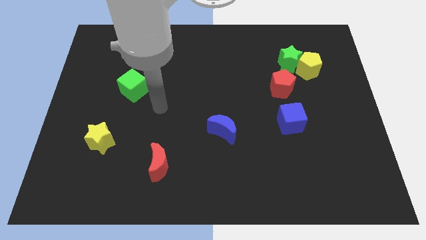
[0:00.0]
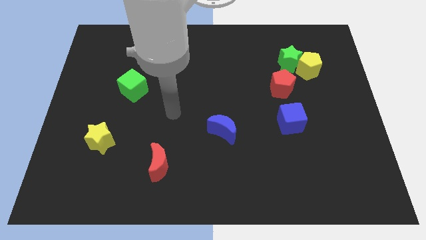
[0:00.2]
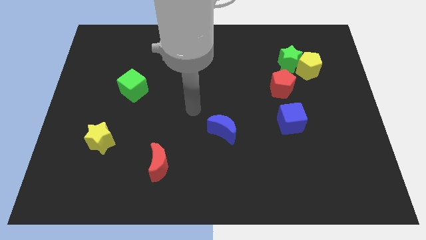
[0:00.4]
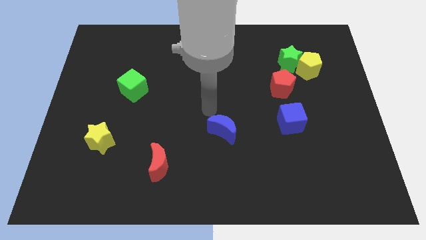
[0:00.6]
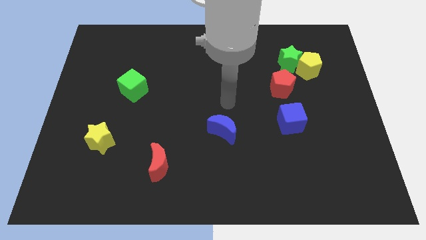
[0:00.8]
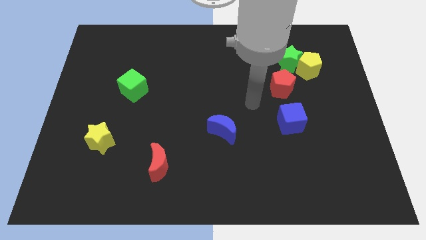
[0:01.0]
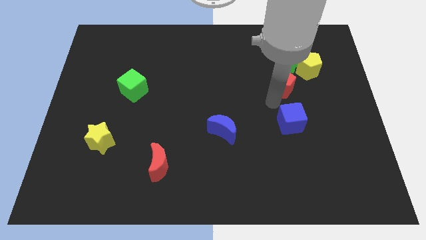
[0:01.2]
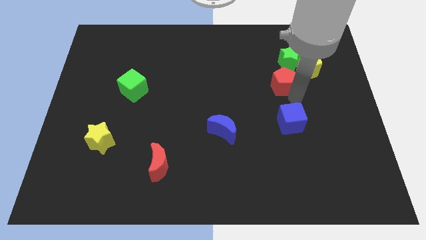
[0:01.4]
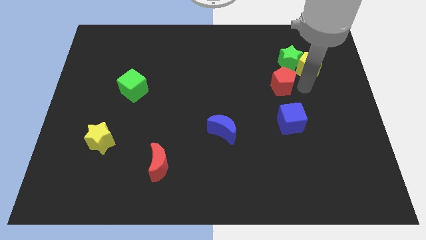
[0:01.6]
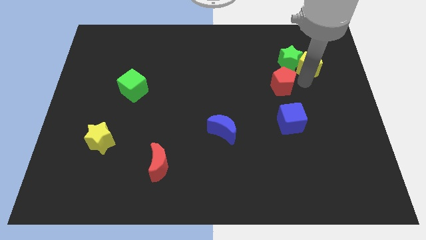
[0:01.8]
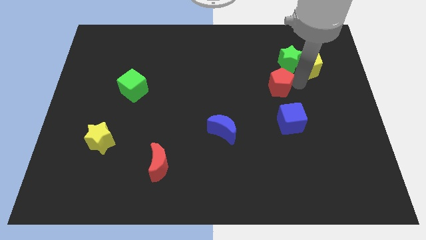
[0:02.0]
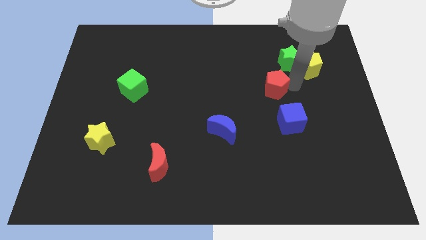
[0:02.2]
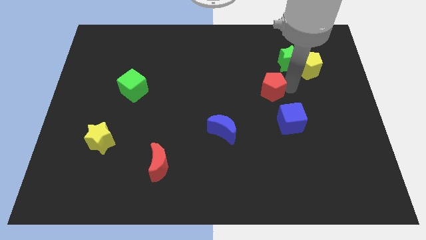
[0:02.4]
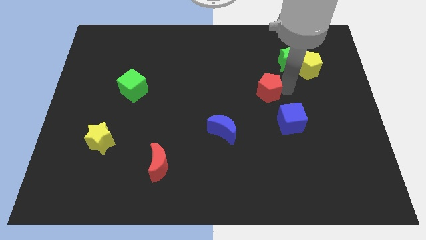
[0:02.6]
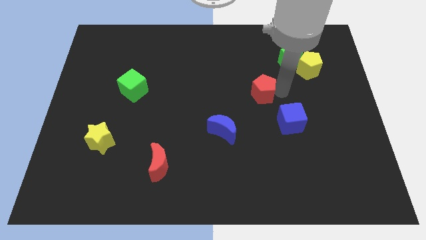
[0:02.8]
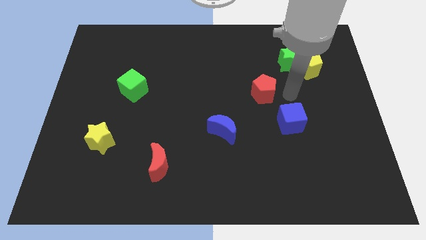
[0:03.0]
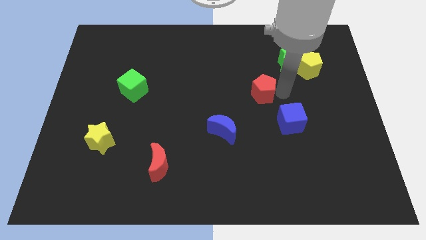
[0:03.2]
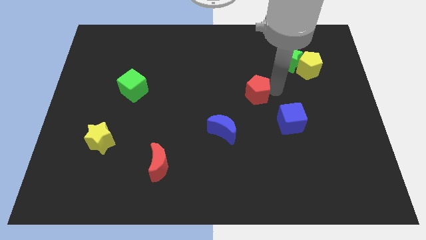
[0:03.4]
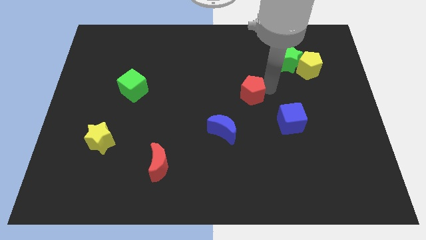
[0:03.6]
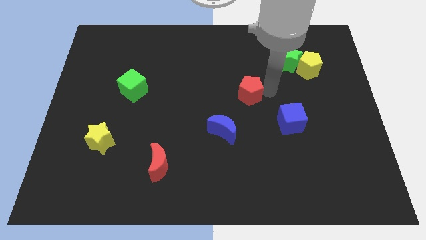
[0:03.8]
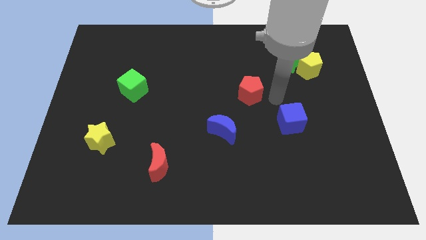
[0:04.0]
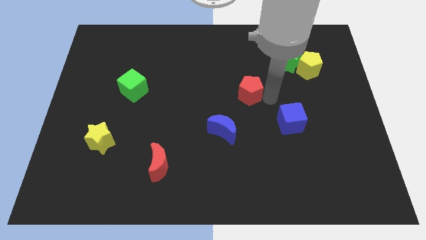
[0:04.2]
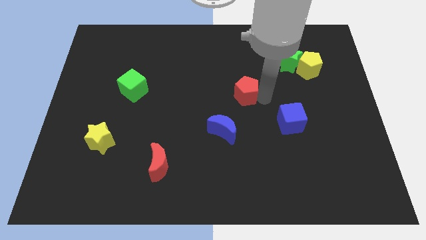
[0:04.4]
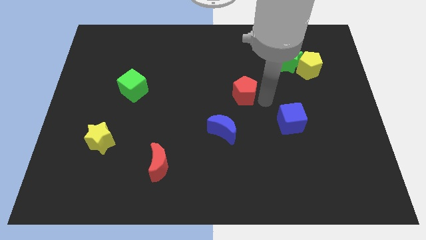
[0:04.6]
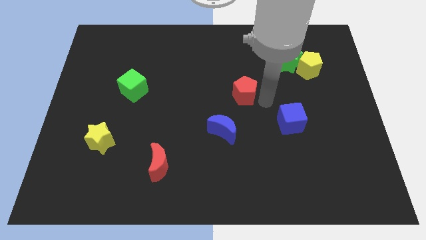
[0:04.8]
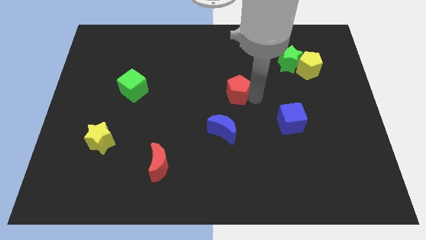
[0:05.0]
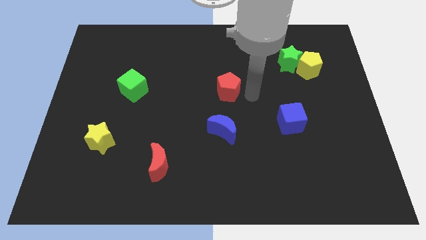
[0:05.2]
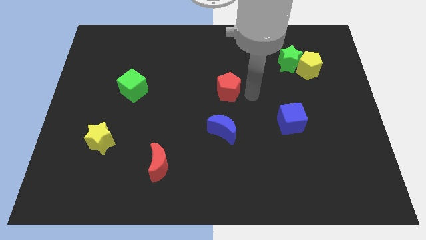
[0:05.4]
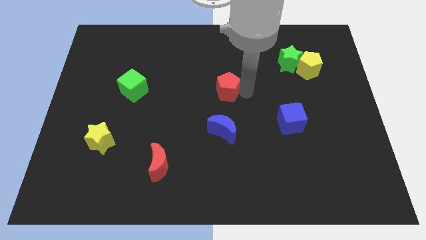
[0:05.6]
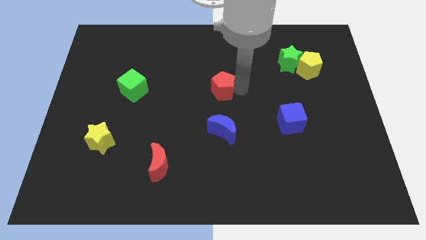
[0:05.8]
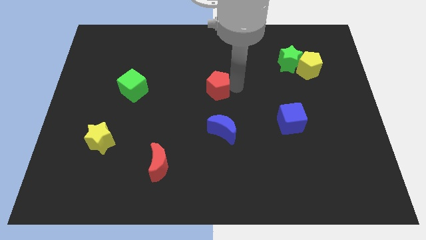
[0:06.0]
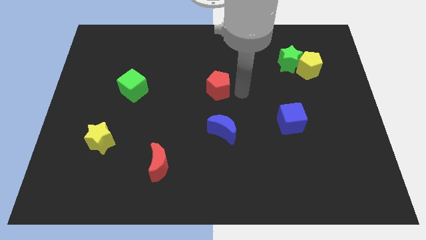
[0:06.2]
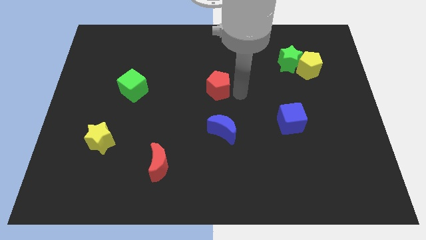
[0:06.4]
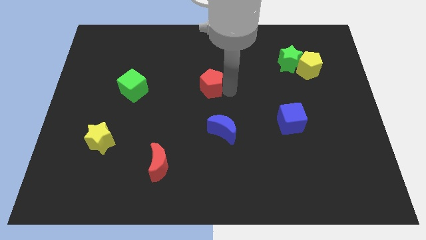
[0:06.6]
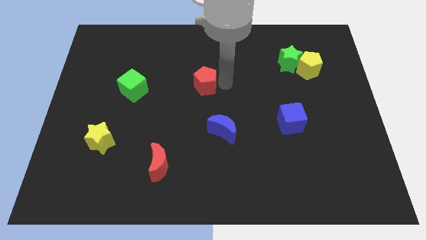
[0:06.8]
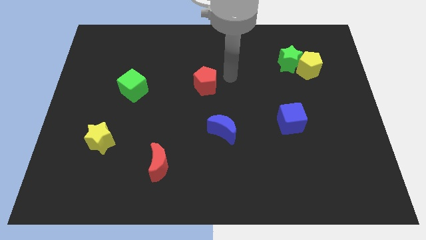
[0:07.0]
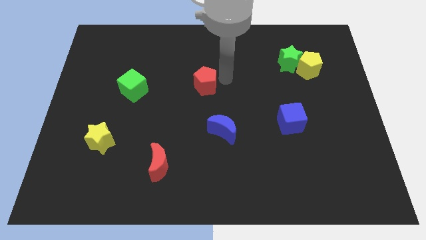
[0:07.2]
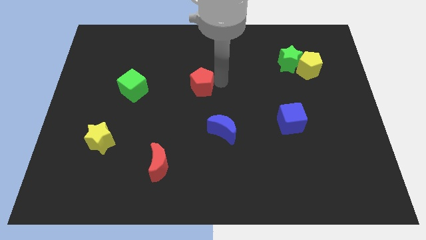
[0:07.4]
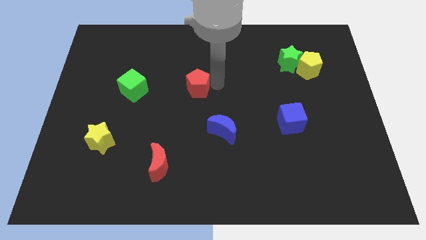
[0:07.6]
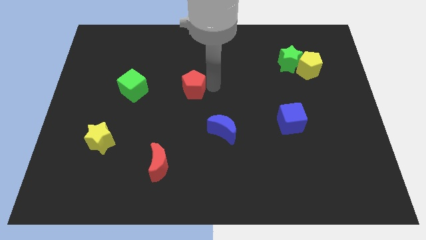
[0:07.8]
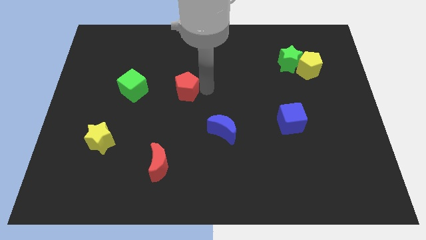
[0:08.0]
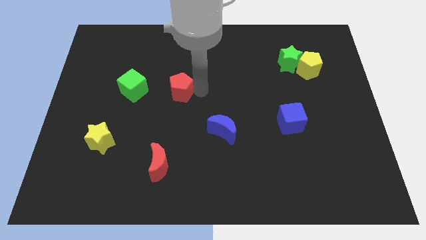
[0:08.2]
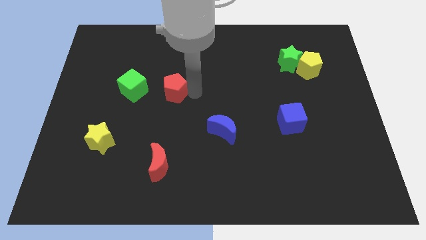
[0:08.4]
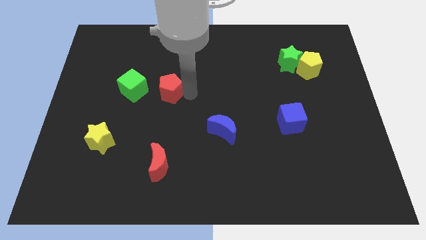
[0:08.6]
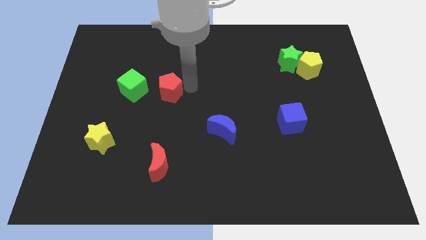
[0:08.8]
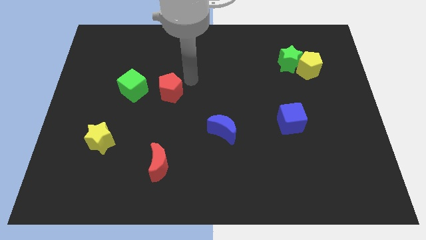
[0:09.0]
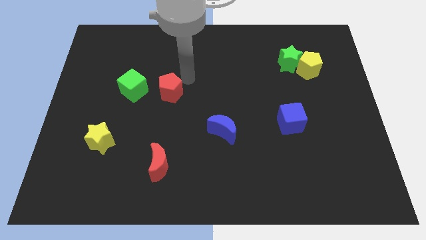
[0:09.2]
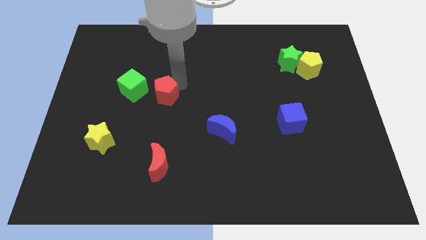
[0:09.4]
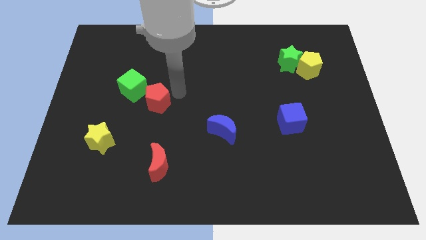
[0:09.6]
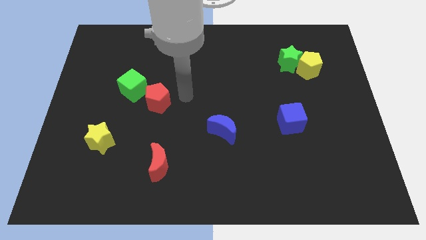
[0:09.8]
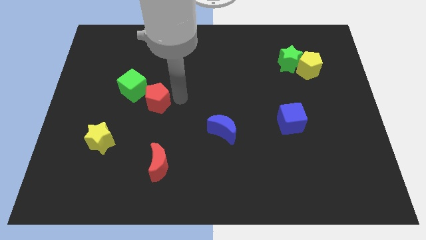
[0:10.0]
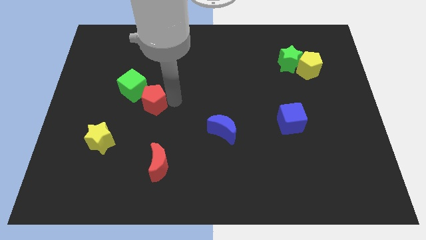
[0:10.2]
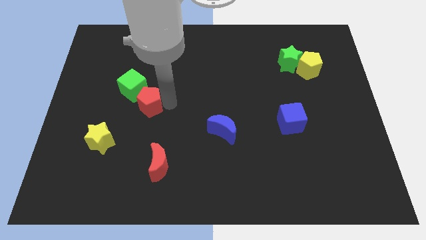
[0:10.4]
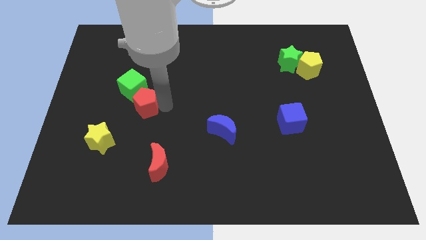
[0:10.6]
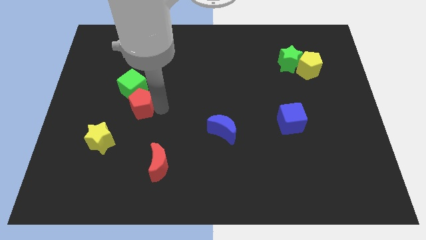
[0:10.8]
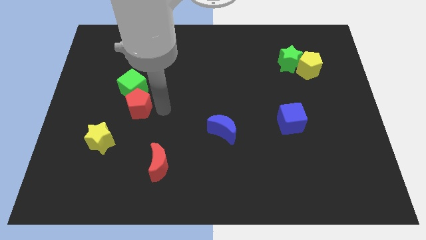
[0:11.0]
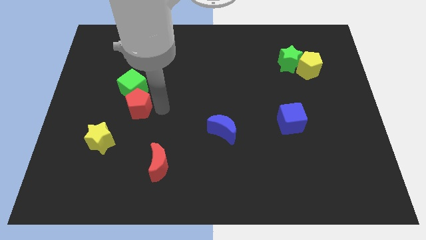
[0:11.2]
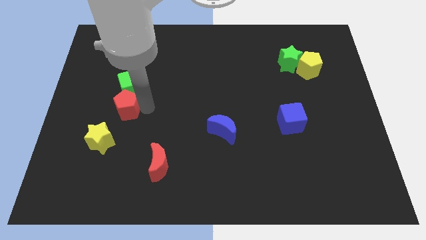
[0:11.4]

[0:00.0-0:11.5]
move the red pentagon diagonally down and to the left of the green cube
